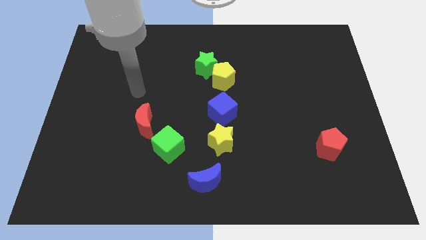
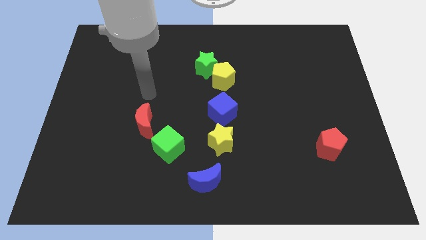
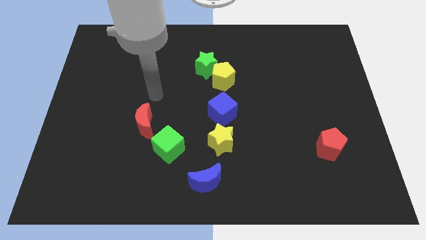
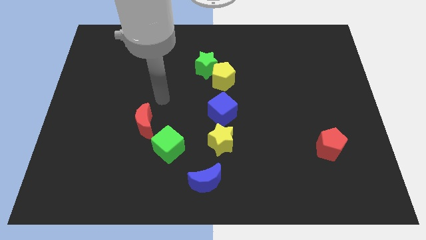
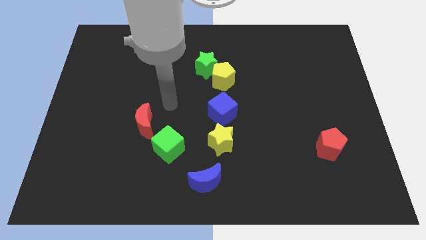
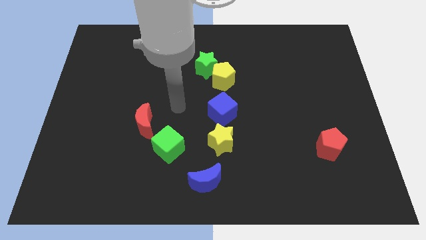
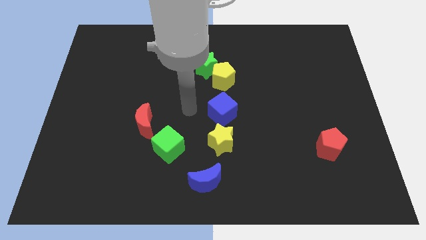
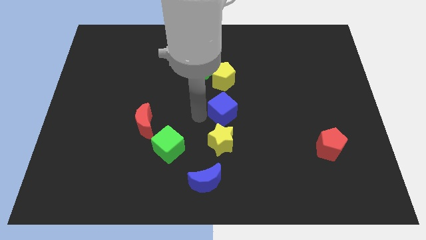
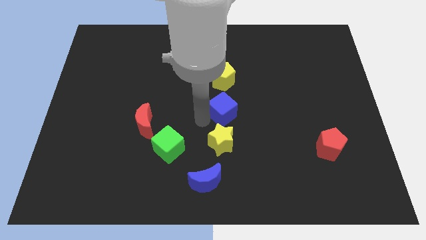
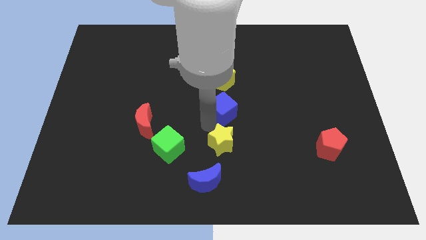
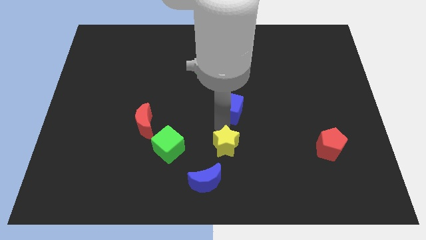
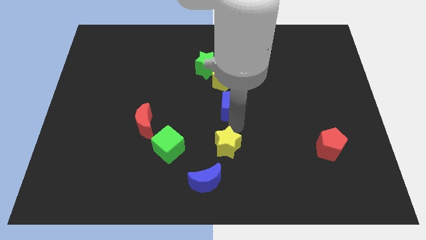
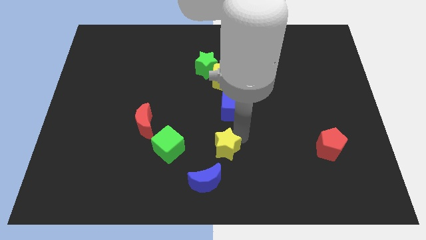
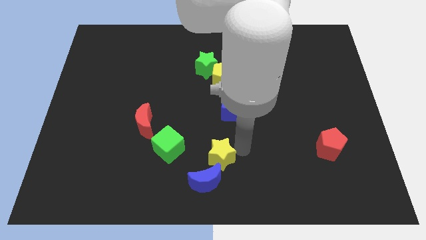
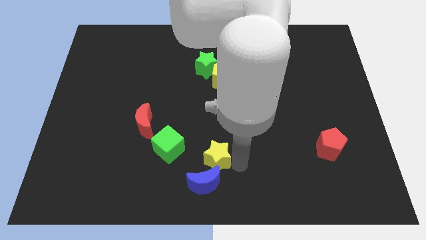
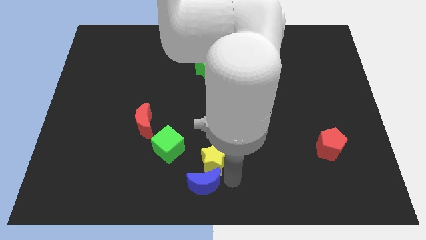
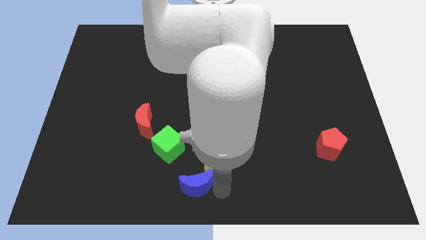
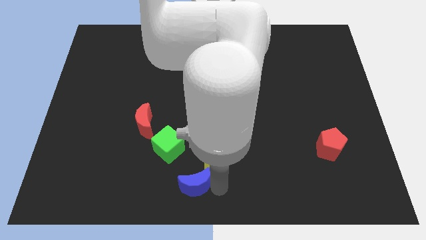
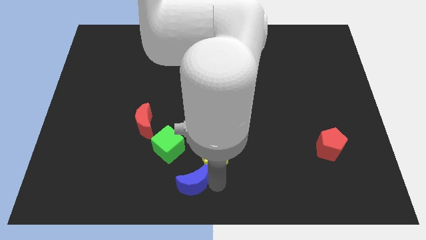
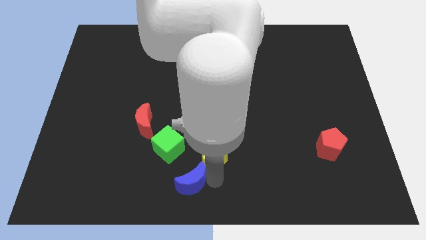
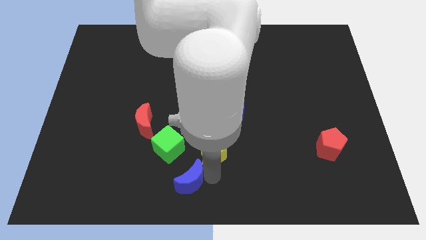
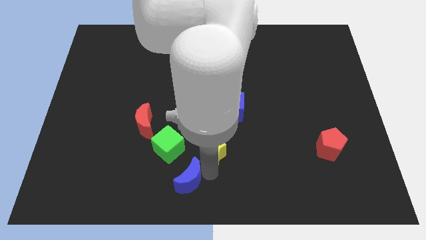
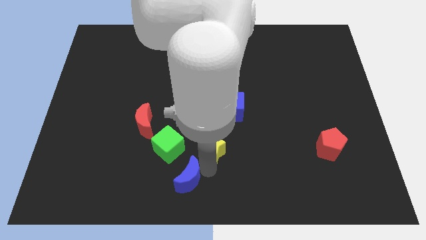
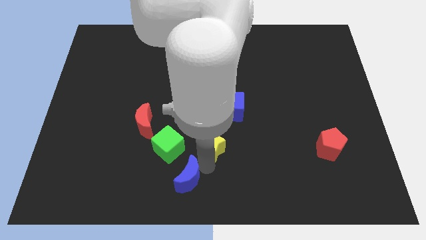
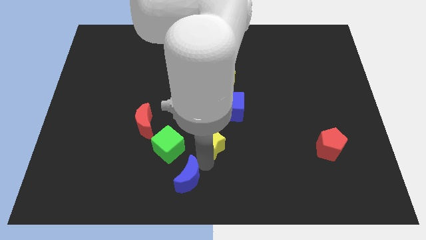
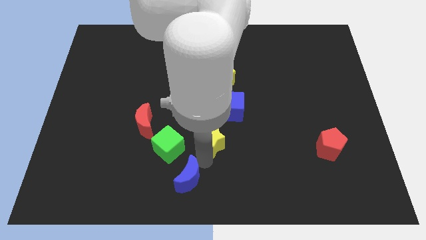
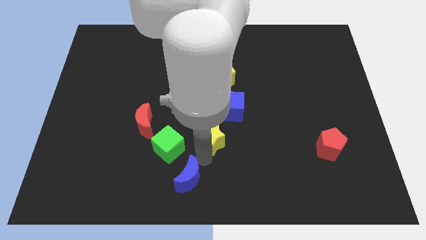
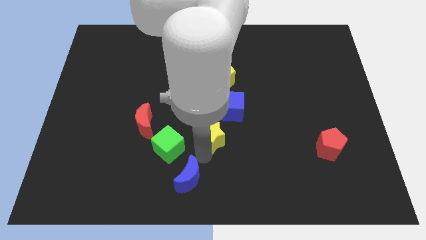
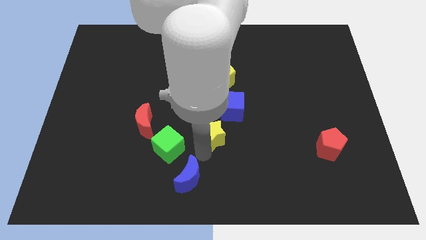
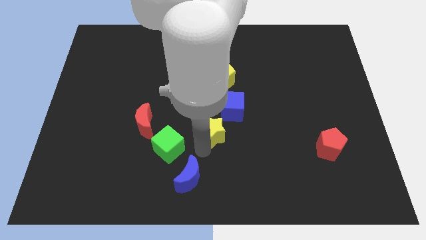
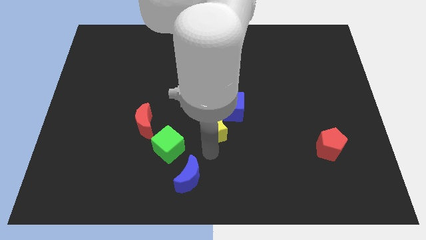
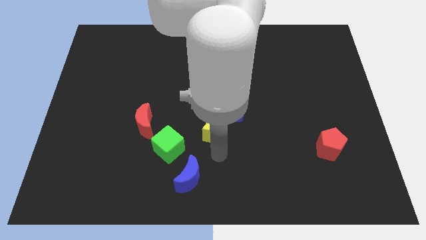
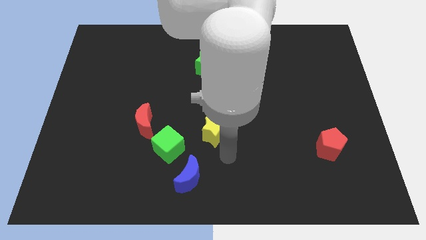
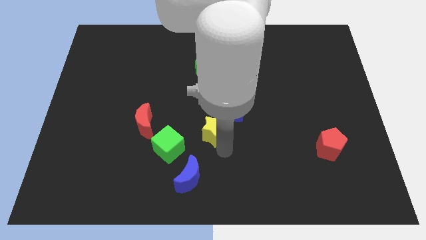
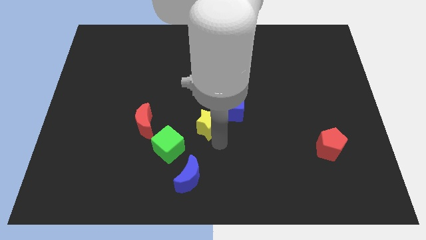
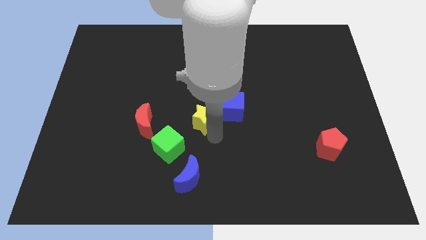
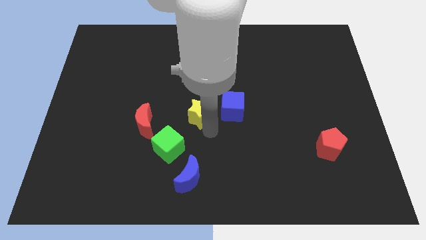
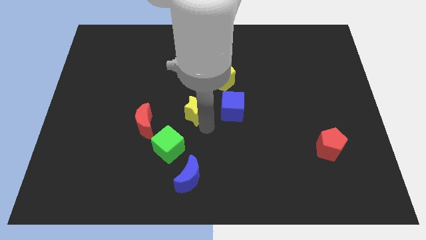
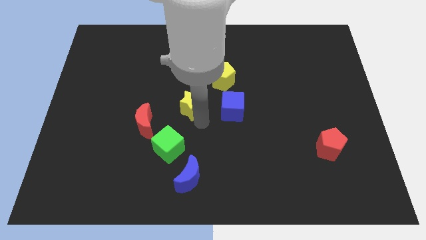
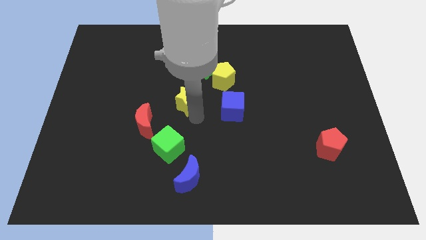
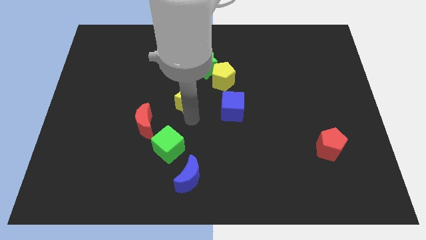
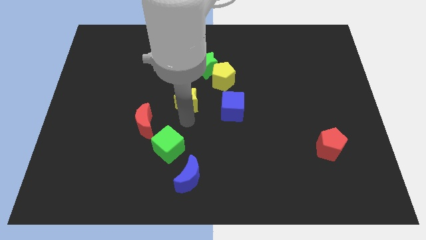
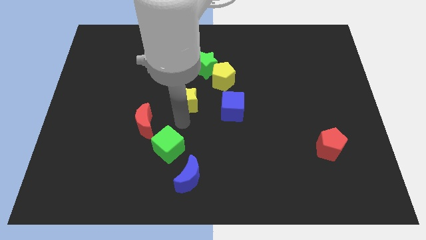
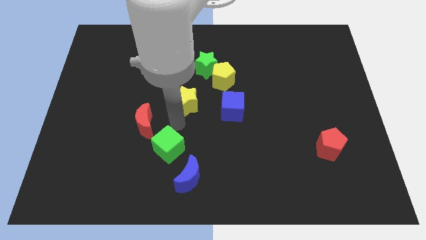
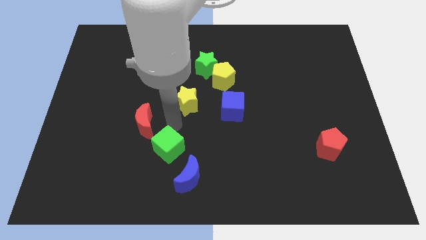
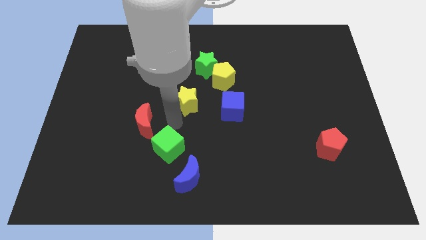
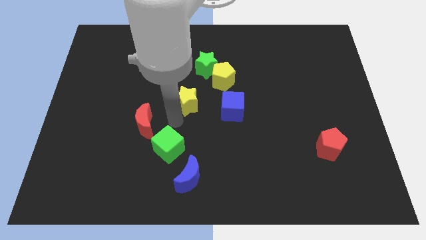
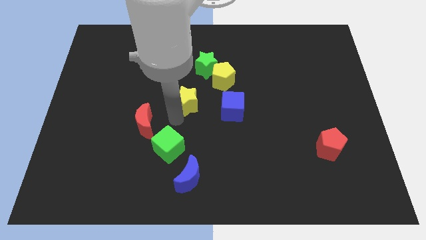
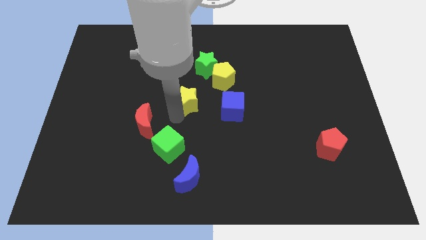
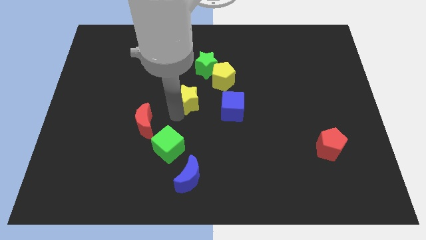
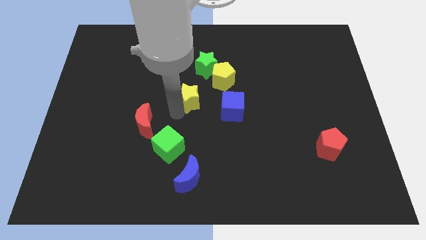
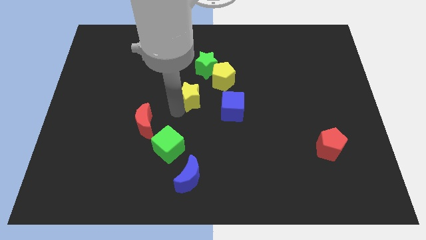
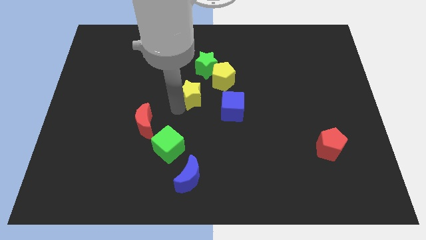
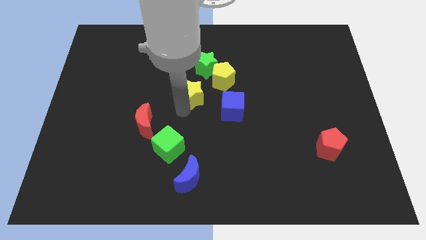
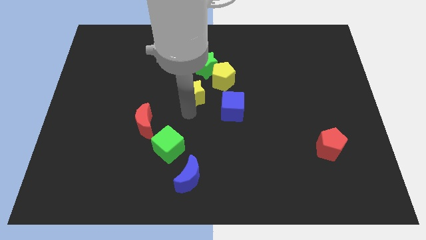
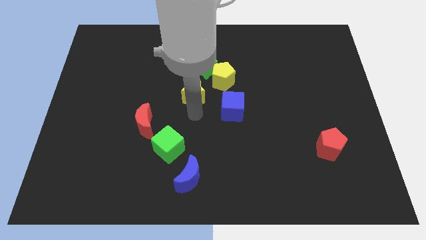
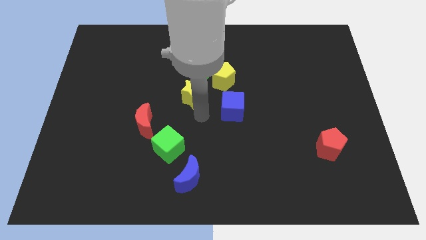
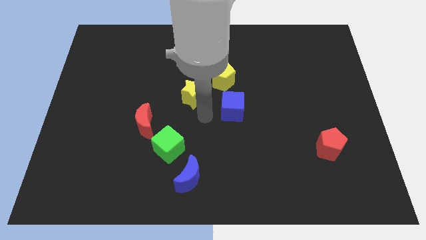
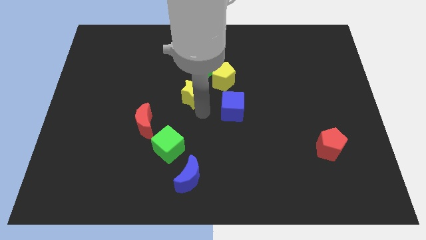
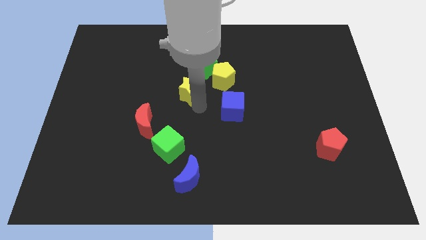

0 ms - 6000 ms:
push the yellow star to the left side of the yellow pentagon
